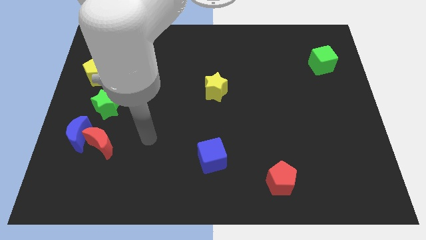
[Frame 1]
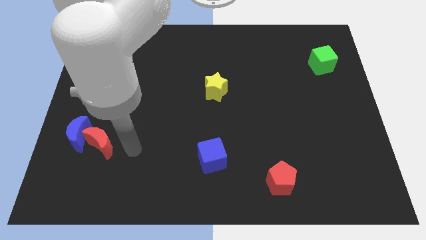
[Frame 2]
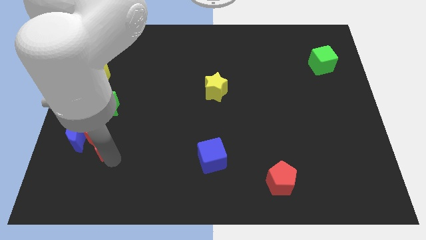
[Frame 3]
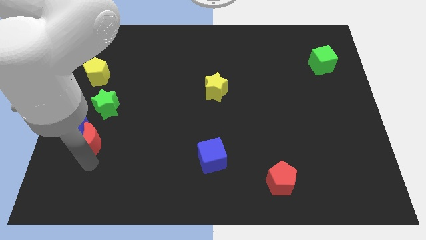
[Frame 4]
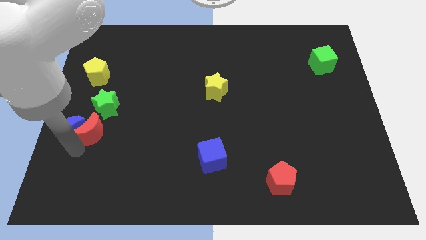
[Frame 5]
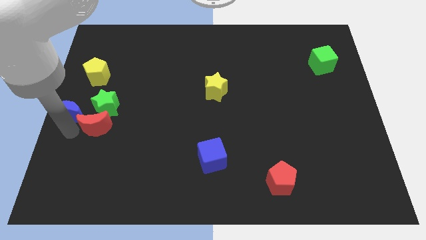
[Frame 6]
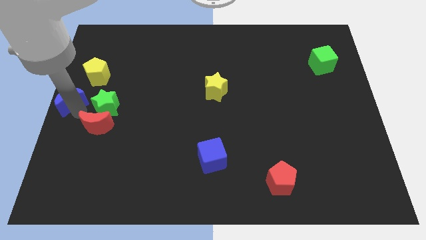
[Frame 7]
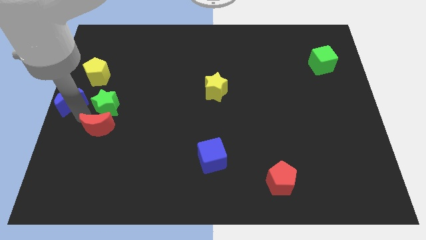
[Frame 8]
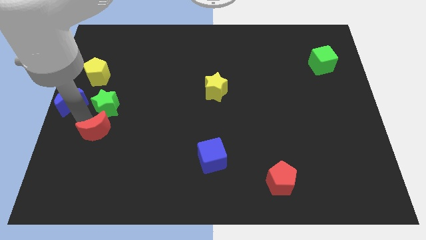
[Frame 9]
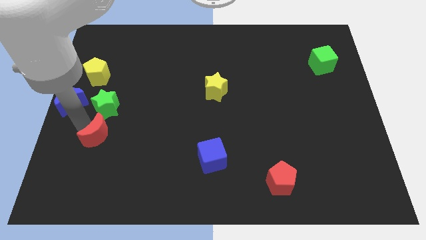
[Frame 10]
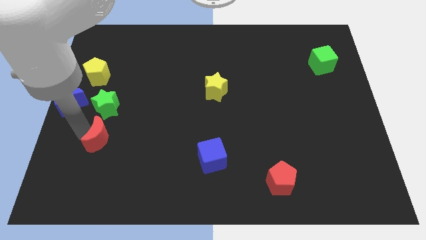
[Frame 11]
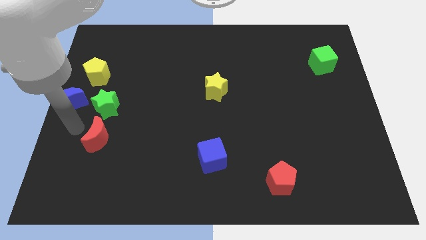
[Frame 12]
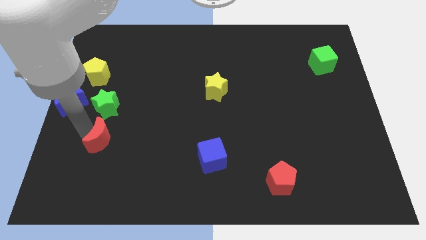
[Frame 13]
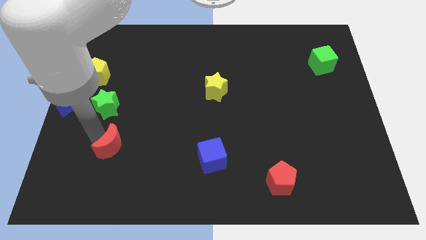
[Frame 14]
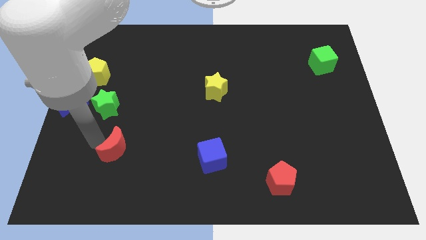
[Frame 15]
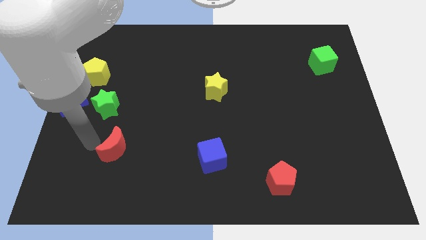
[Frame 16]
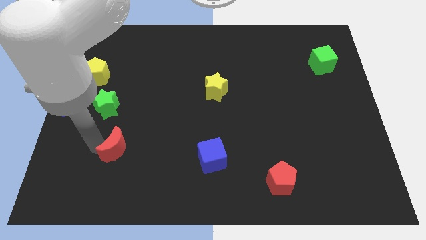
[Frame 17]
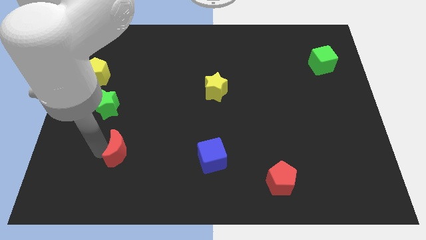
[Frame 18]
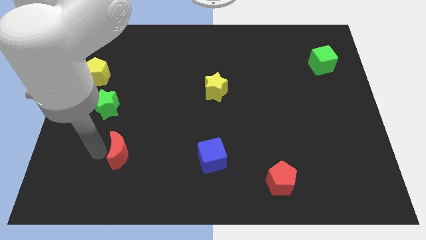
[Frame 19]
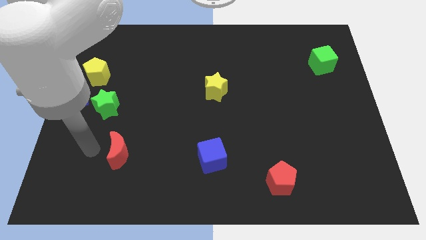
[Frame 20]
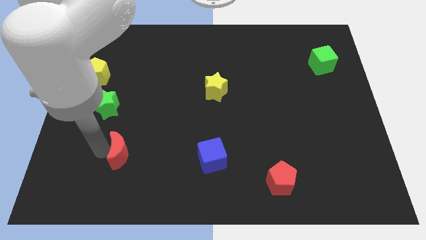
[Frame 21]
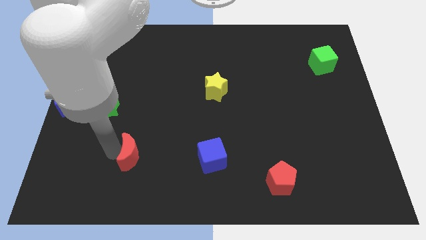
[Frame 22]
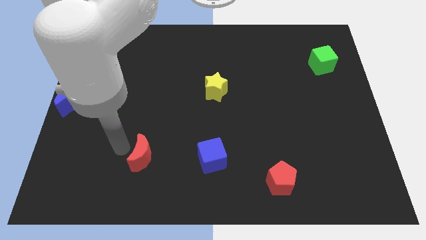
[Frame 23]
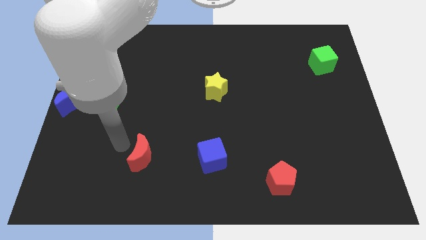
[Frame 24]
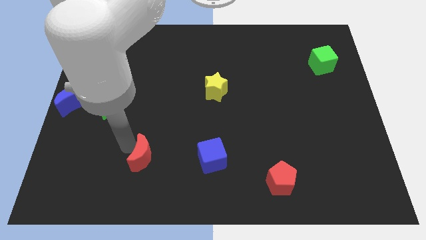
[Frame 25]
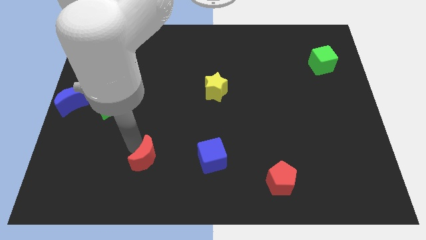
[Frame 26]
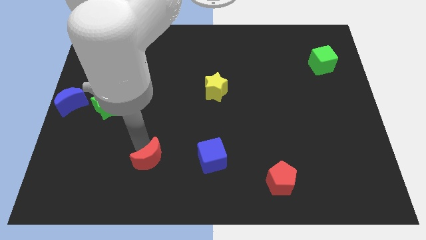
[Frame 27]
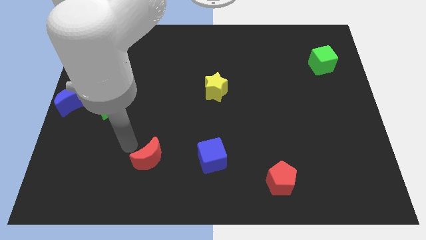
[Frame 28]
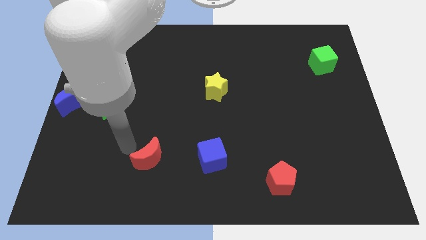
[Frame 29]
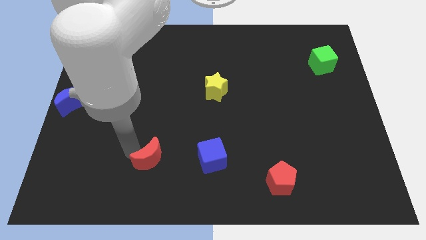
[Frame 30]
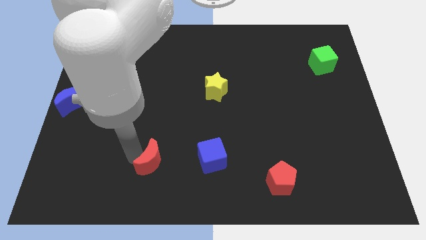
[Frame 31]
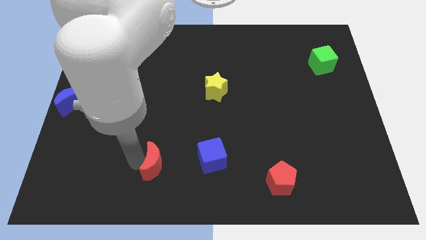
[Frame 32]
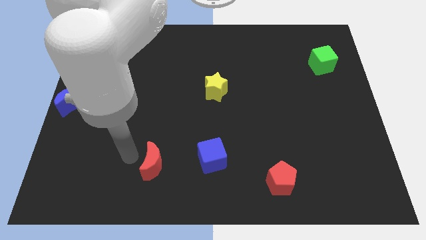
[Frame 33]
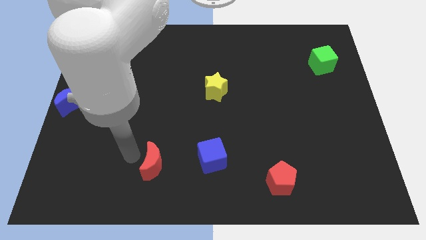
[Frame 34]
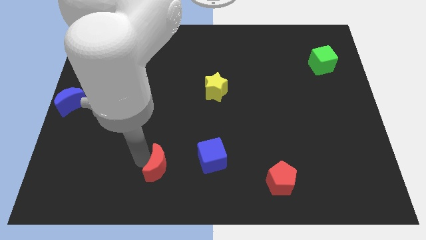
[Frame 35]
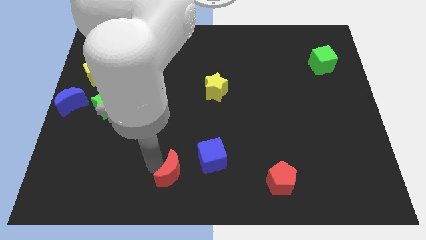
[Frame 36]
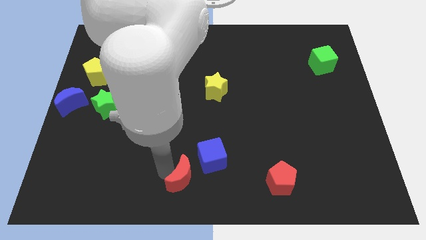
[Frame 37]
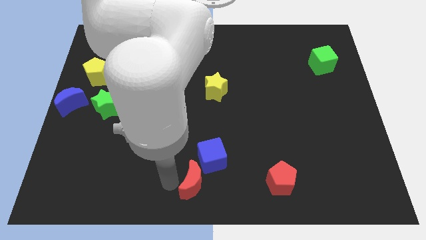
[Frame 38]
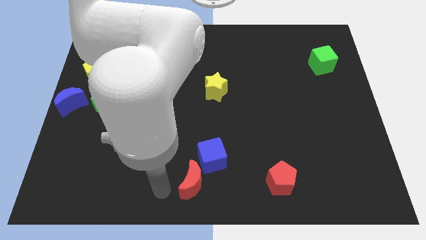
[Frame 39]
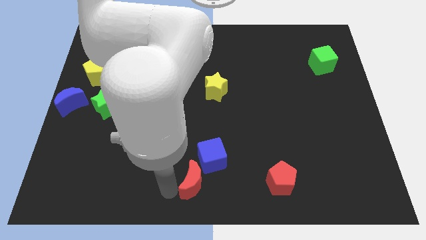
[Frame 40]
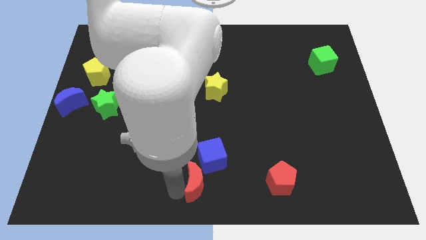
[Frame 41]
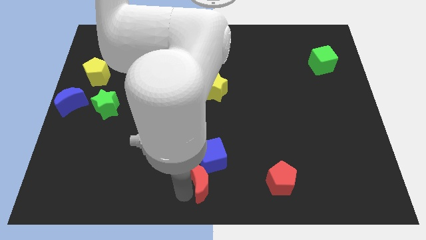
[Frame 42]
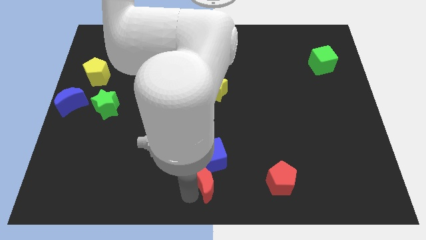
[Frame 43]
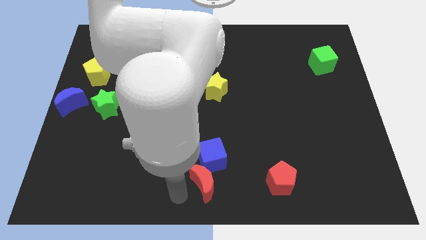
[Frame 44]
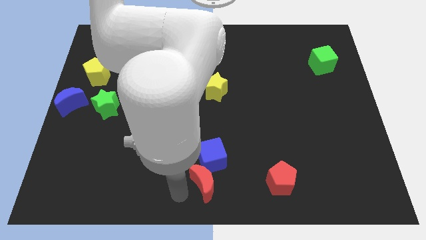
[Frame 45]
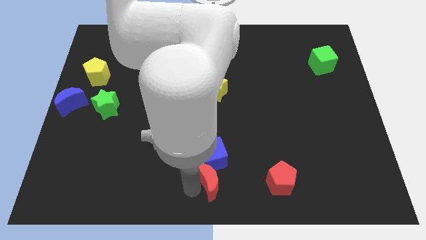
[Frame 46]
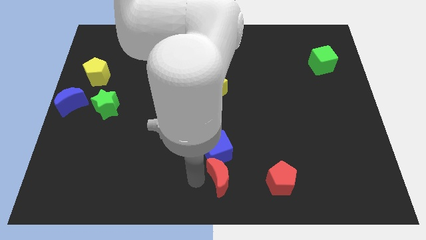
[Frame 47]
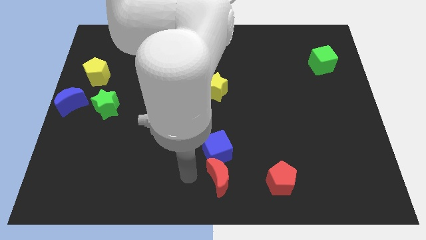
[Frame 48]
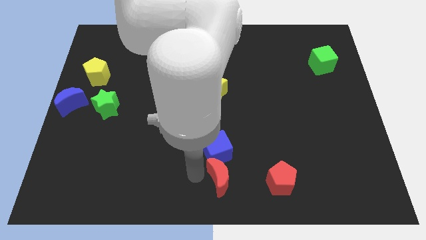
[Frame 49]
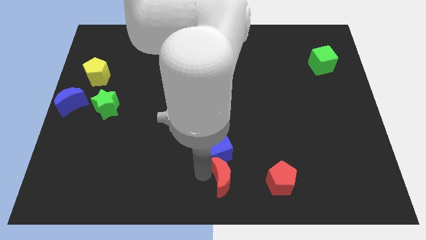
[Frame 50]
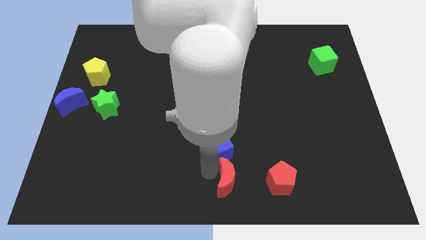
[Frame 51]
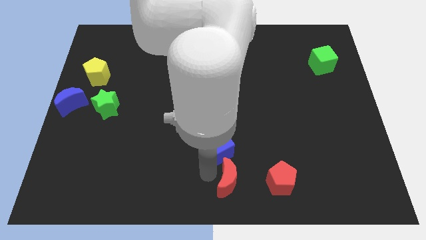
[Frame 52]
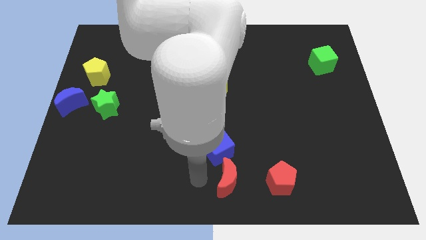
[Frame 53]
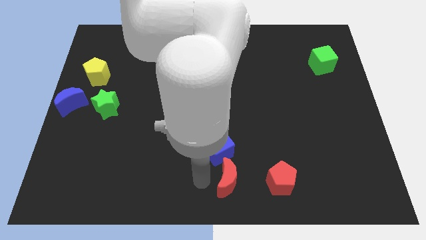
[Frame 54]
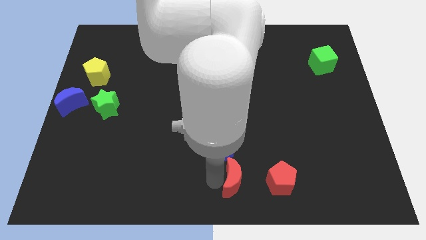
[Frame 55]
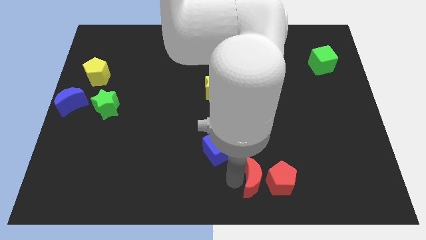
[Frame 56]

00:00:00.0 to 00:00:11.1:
slide the red moon next to the red pentagon

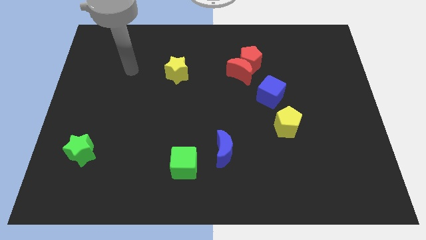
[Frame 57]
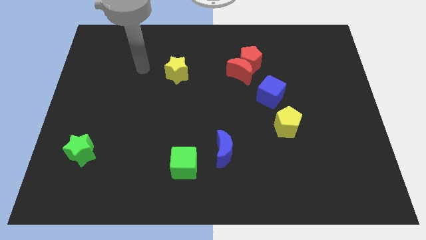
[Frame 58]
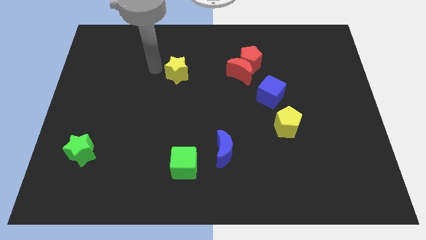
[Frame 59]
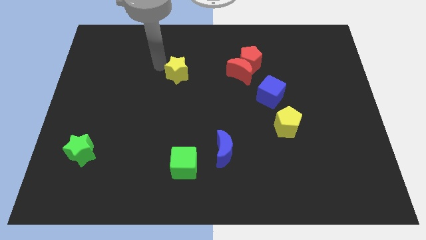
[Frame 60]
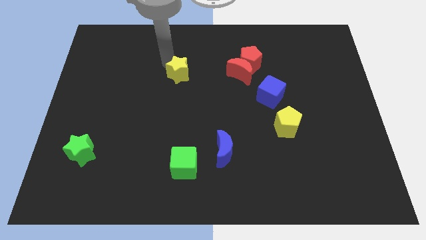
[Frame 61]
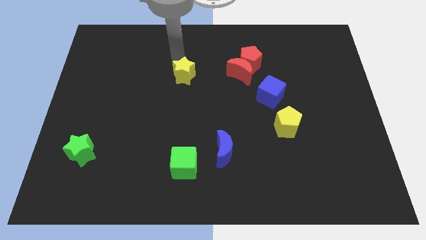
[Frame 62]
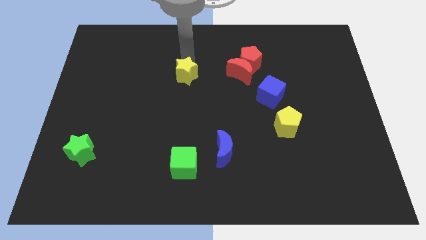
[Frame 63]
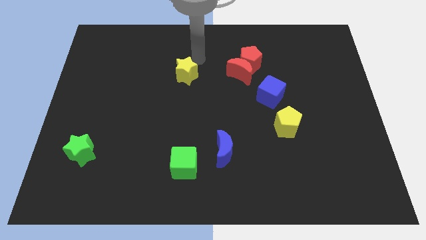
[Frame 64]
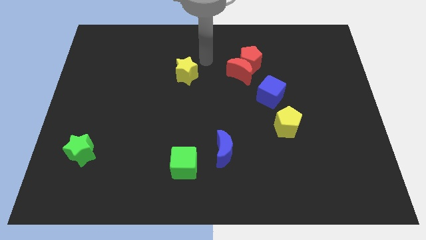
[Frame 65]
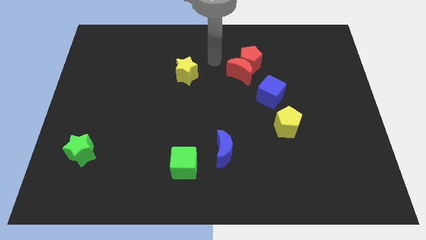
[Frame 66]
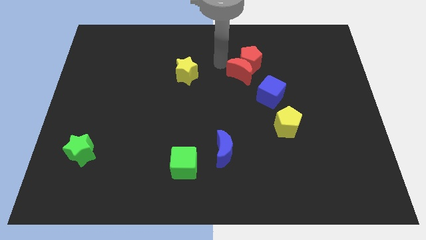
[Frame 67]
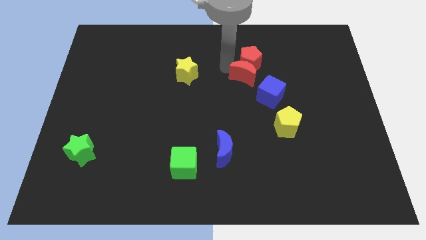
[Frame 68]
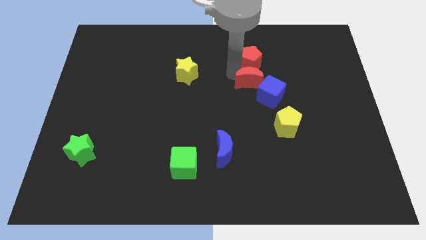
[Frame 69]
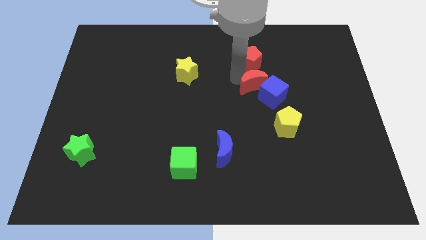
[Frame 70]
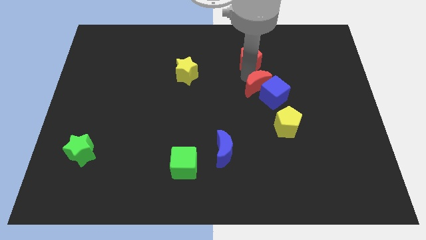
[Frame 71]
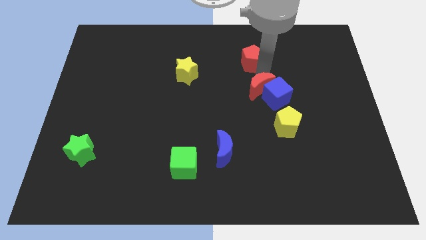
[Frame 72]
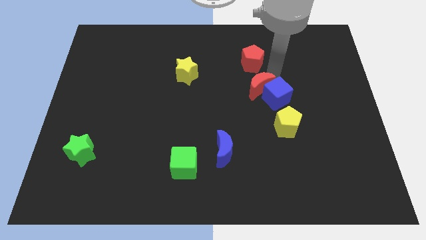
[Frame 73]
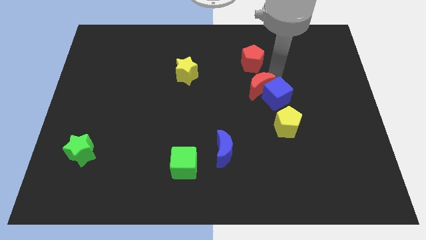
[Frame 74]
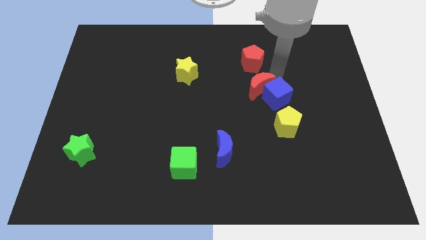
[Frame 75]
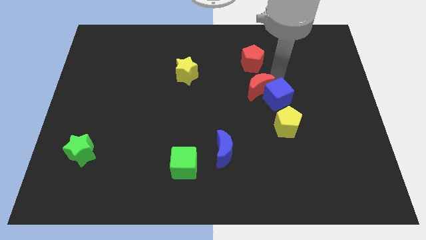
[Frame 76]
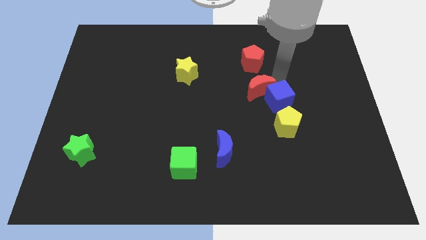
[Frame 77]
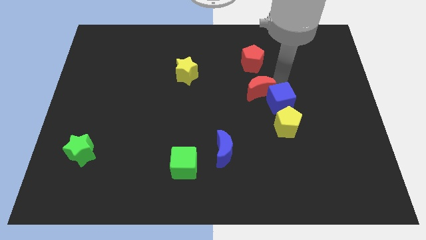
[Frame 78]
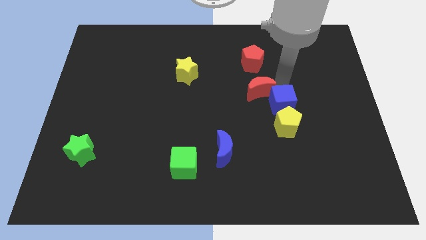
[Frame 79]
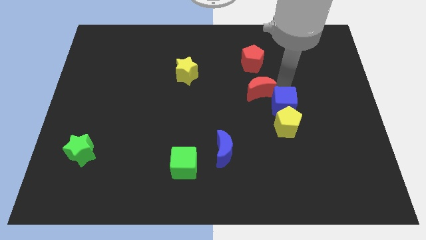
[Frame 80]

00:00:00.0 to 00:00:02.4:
slide the blue cube to the yellow pentagon
